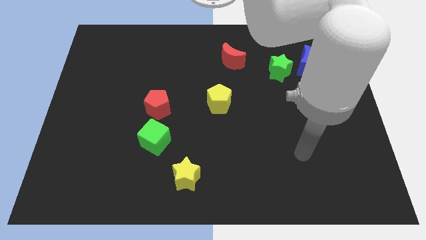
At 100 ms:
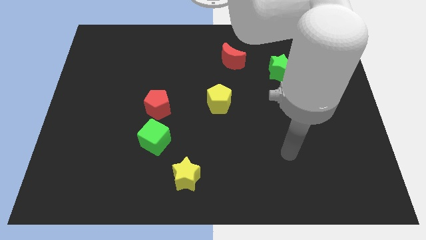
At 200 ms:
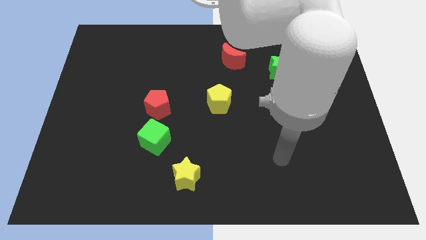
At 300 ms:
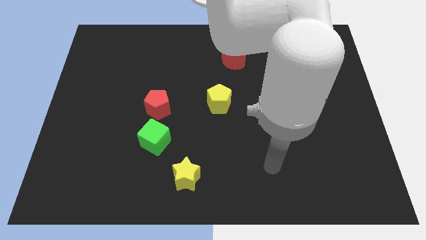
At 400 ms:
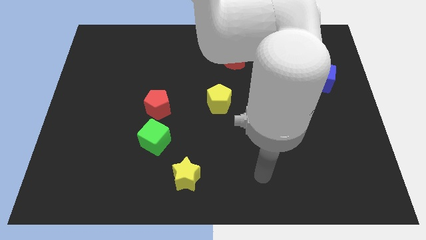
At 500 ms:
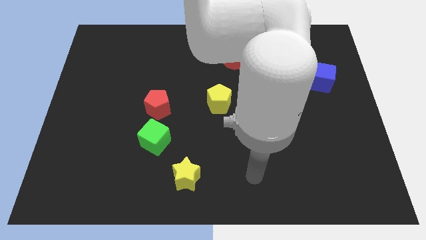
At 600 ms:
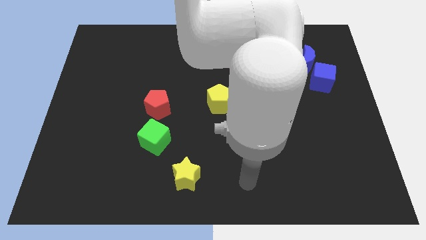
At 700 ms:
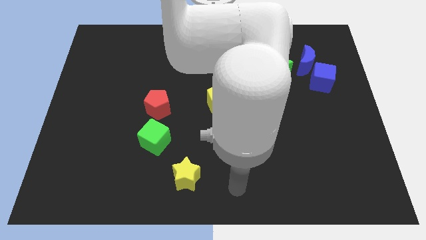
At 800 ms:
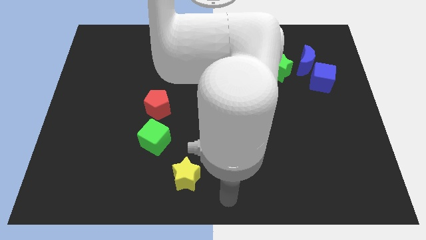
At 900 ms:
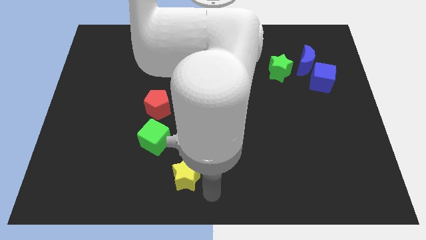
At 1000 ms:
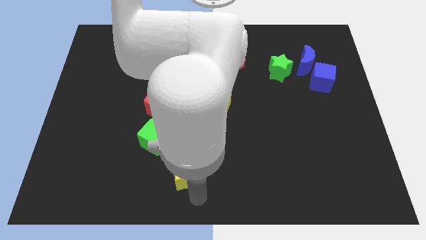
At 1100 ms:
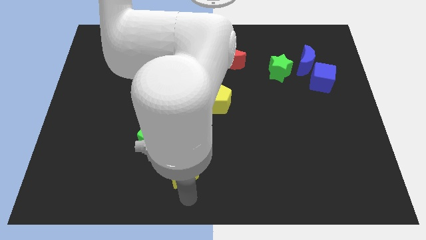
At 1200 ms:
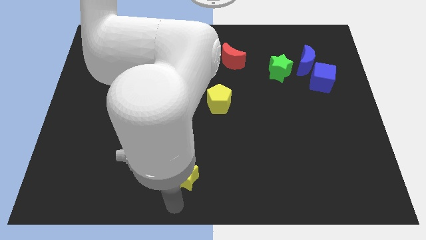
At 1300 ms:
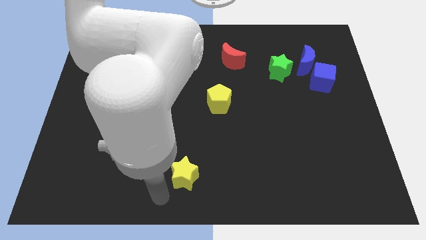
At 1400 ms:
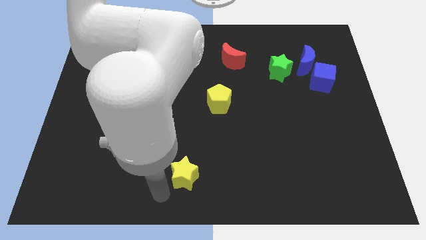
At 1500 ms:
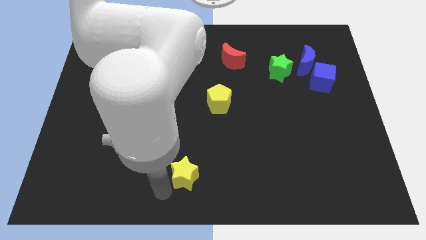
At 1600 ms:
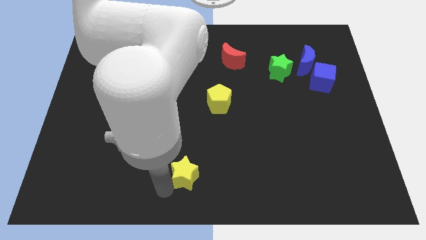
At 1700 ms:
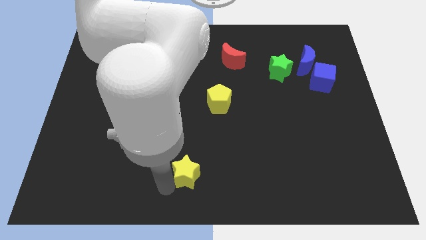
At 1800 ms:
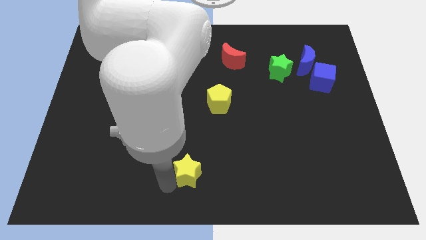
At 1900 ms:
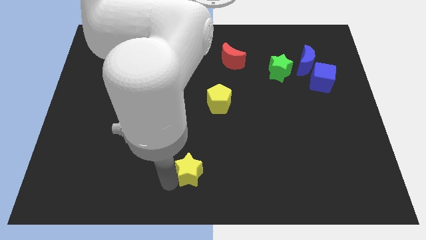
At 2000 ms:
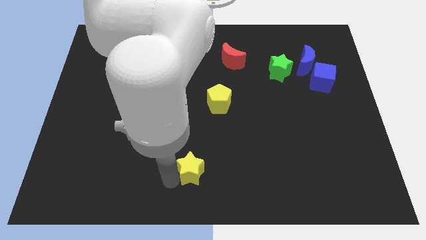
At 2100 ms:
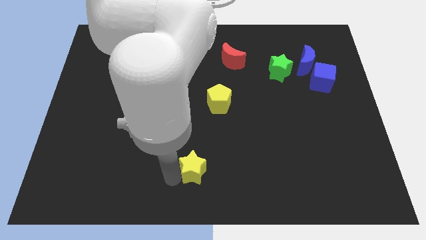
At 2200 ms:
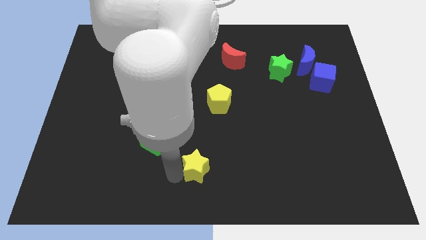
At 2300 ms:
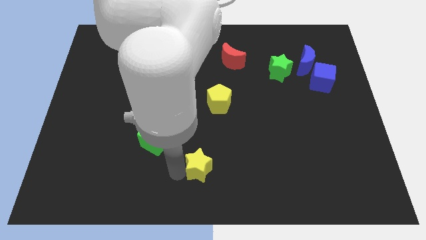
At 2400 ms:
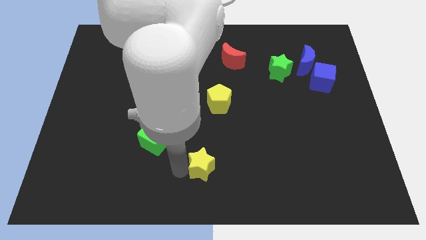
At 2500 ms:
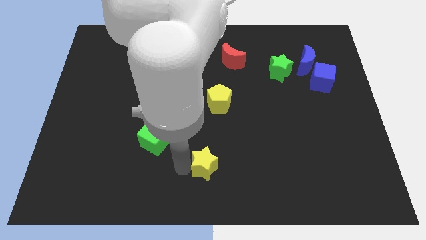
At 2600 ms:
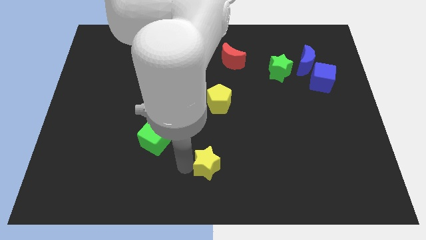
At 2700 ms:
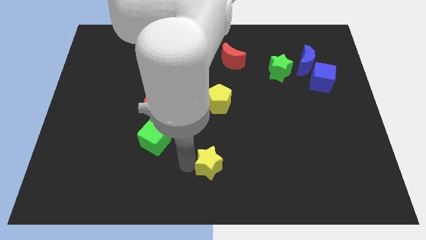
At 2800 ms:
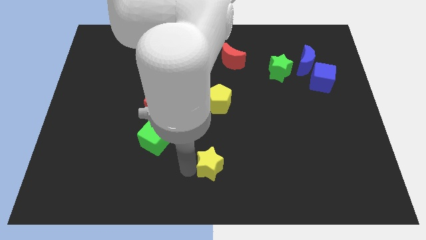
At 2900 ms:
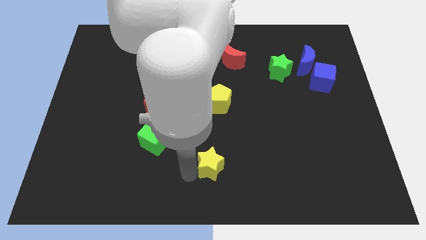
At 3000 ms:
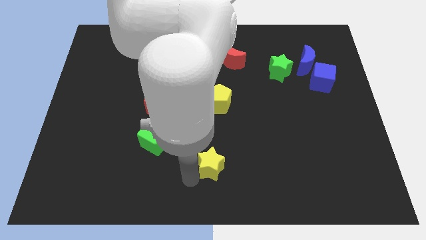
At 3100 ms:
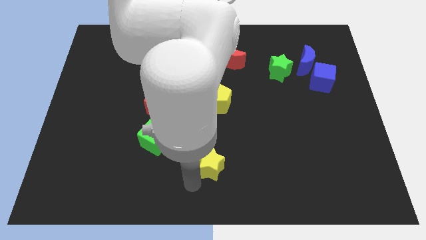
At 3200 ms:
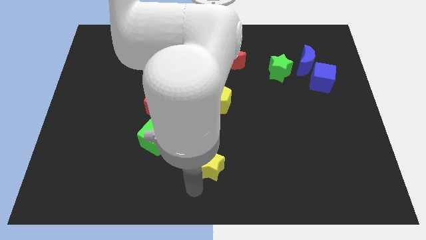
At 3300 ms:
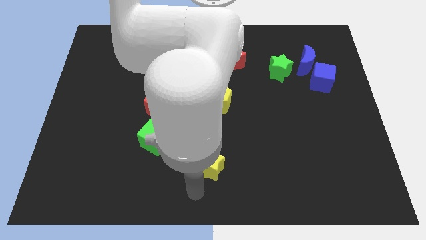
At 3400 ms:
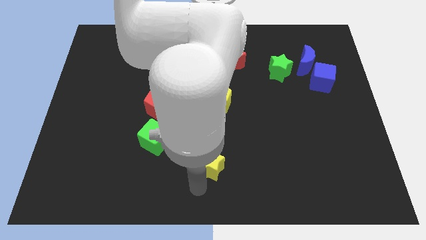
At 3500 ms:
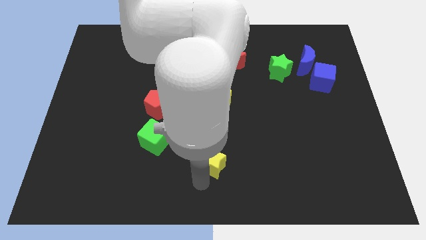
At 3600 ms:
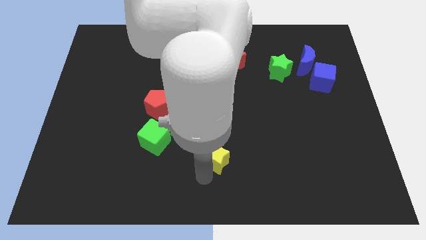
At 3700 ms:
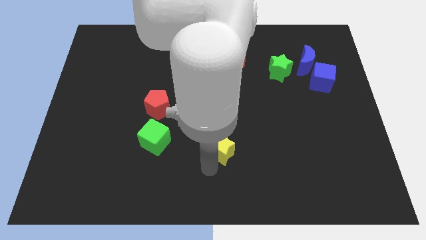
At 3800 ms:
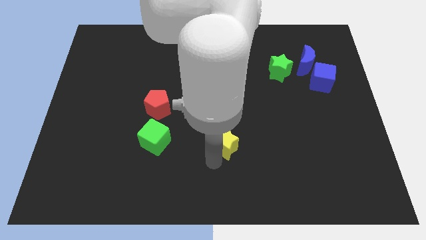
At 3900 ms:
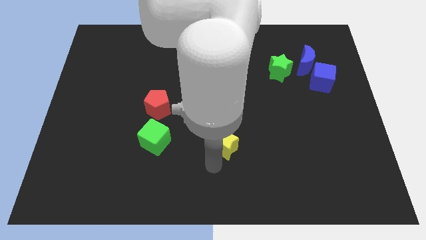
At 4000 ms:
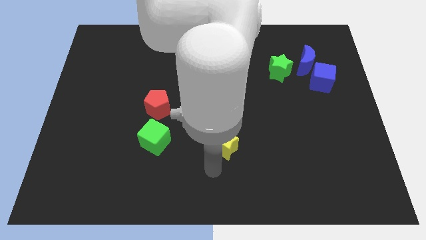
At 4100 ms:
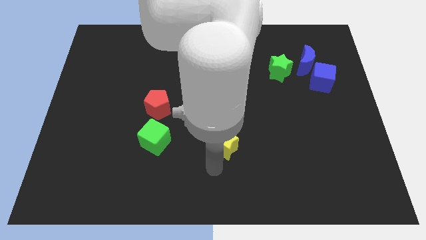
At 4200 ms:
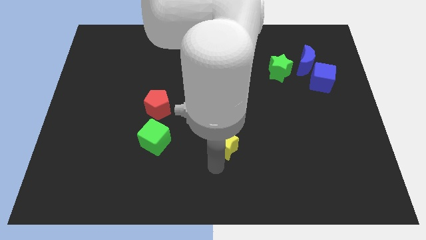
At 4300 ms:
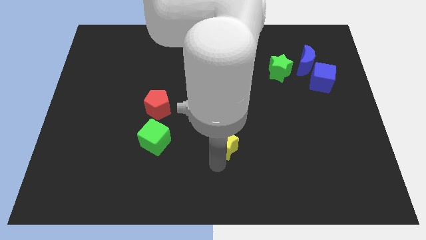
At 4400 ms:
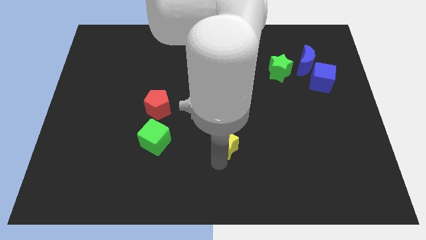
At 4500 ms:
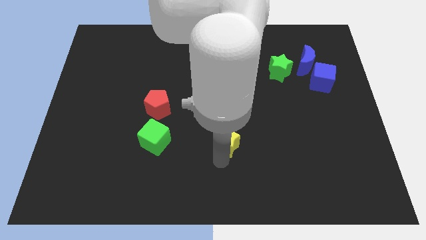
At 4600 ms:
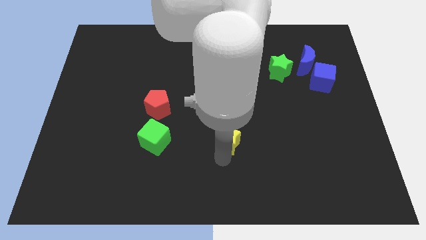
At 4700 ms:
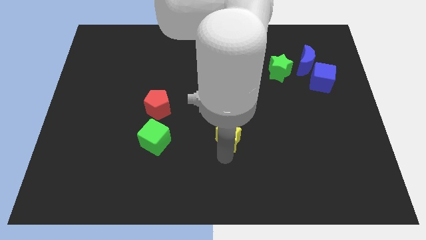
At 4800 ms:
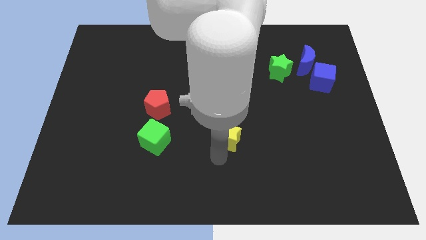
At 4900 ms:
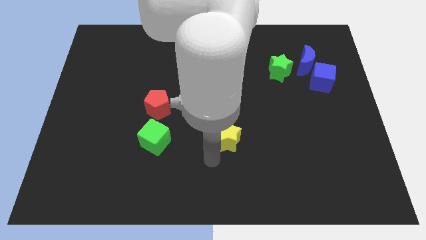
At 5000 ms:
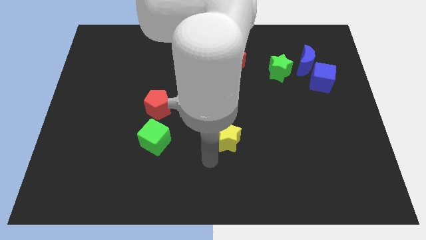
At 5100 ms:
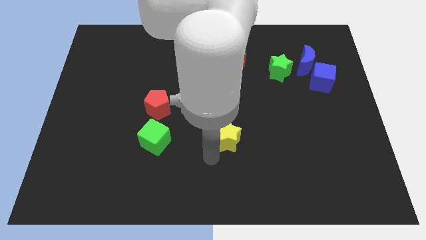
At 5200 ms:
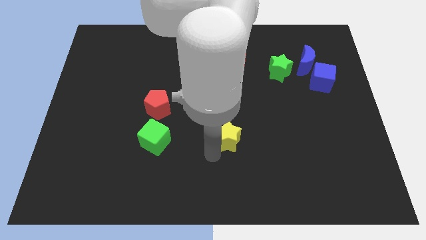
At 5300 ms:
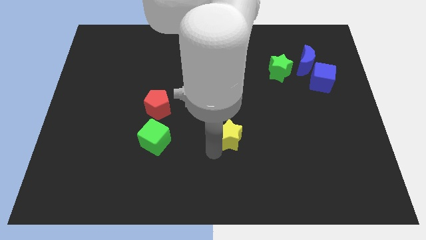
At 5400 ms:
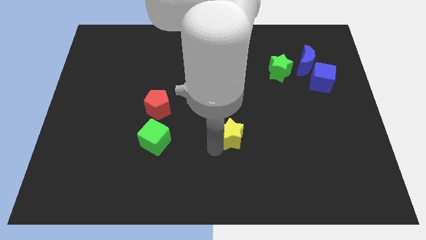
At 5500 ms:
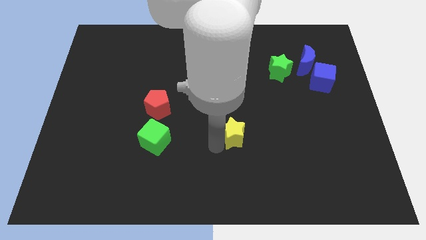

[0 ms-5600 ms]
put the yellow star to the bottom right of the yellow pentagon
